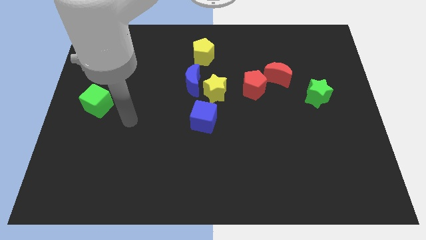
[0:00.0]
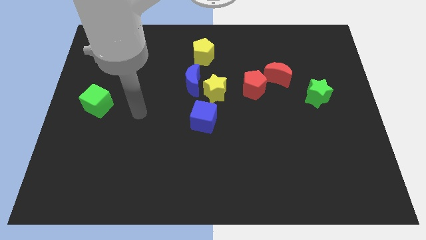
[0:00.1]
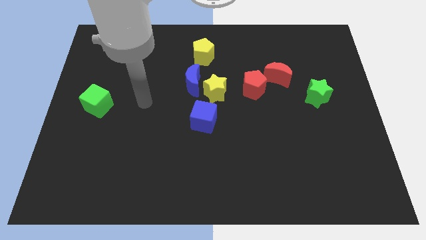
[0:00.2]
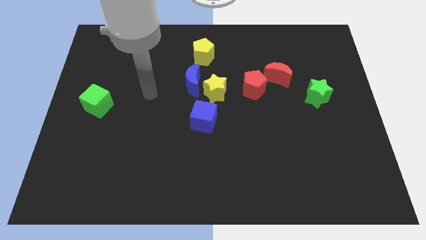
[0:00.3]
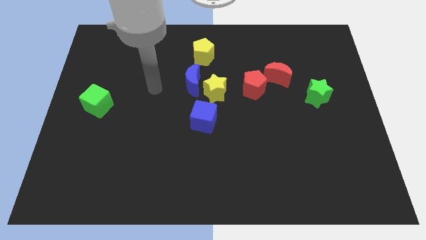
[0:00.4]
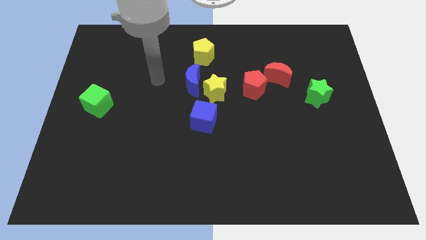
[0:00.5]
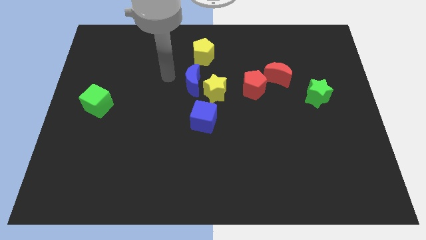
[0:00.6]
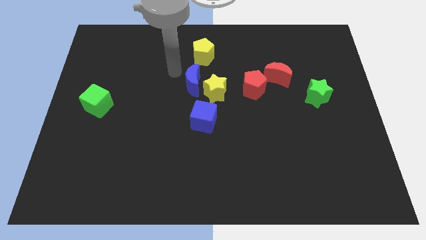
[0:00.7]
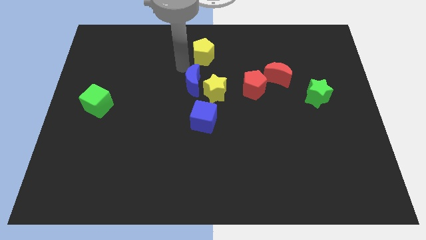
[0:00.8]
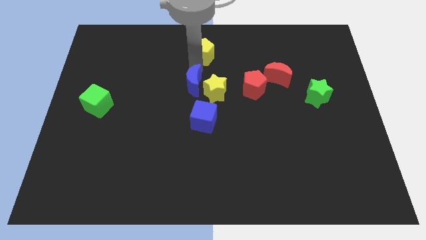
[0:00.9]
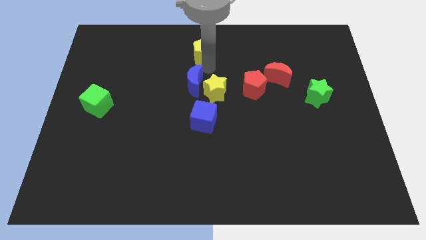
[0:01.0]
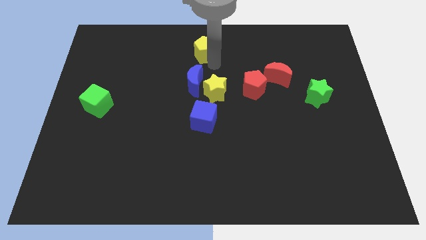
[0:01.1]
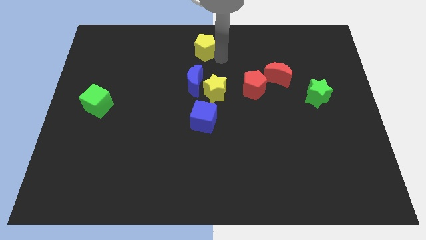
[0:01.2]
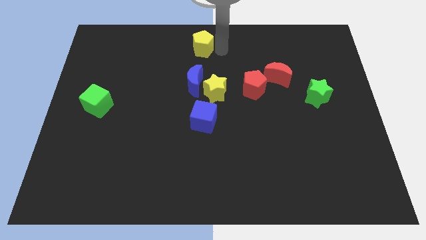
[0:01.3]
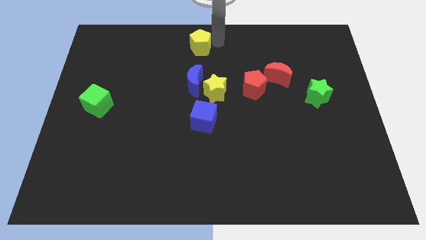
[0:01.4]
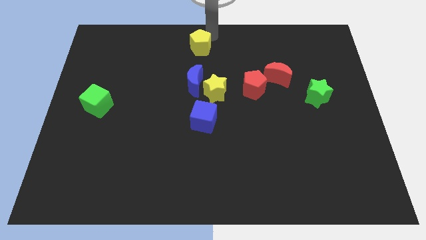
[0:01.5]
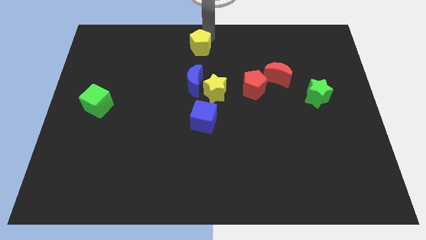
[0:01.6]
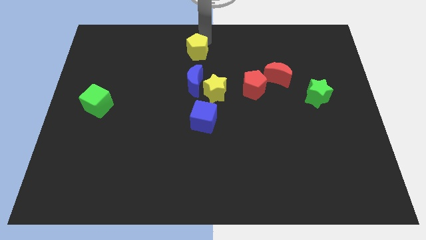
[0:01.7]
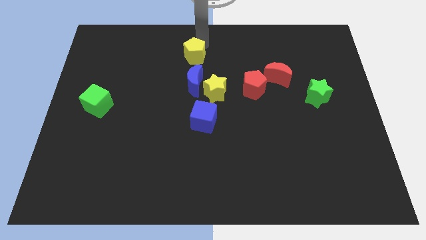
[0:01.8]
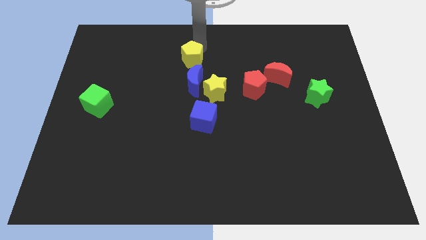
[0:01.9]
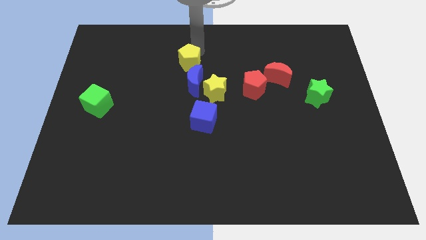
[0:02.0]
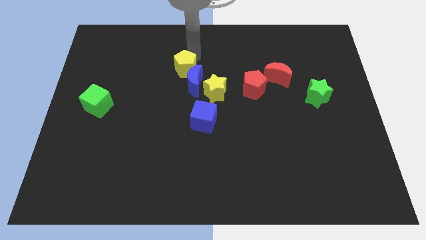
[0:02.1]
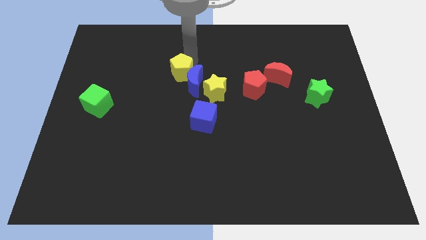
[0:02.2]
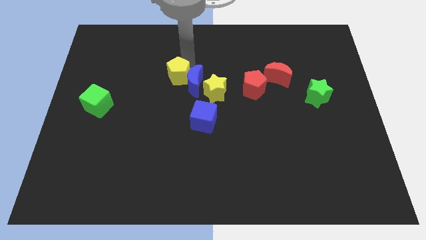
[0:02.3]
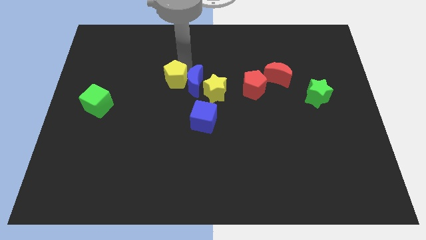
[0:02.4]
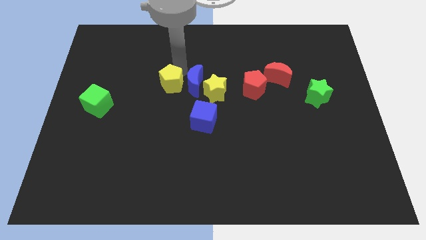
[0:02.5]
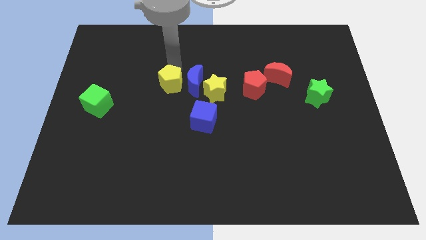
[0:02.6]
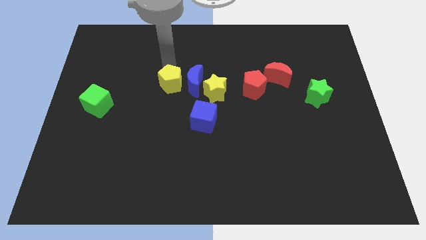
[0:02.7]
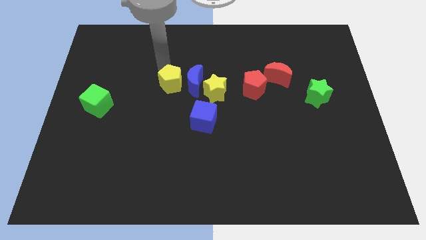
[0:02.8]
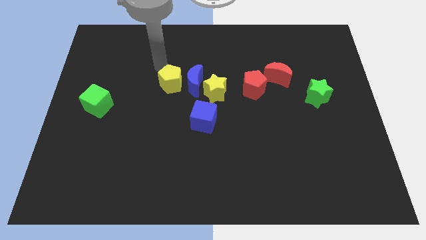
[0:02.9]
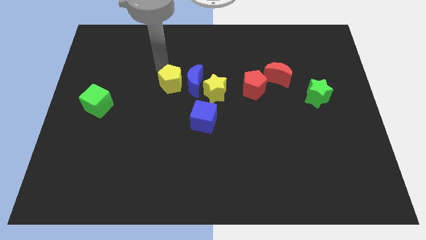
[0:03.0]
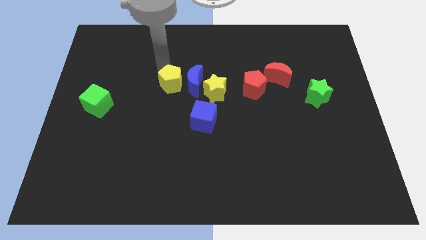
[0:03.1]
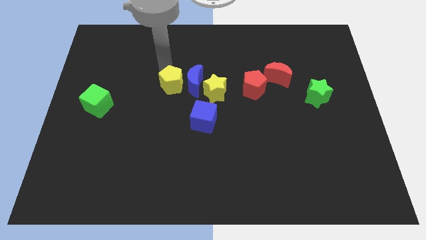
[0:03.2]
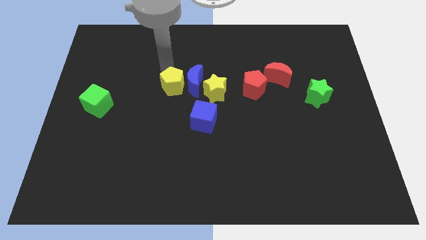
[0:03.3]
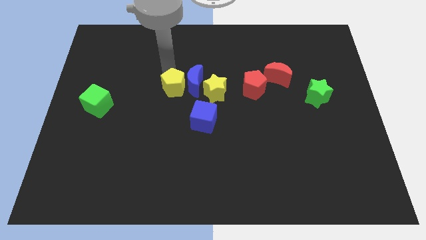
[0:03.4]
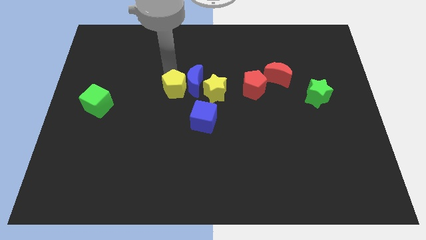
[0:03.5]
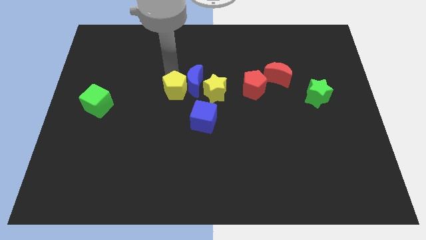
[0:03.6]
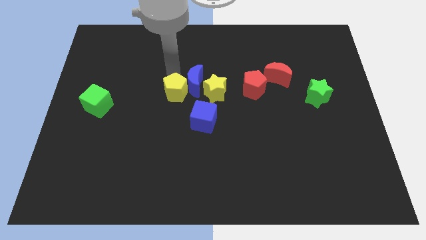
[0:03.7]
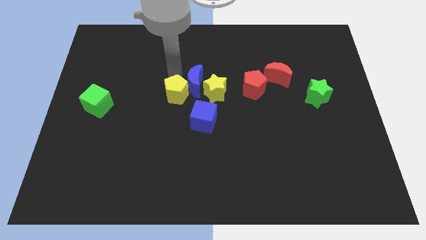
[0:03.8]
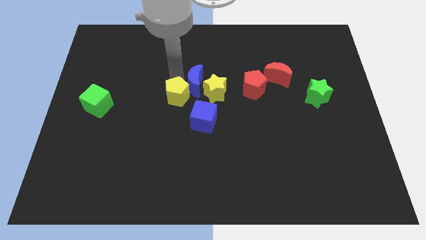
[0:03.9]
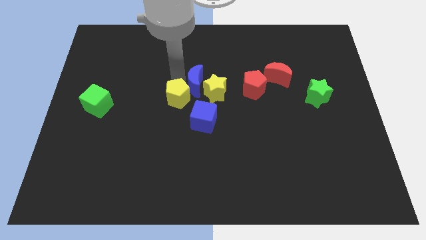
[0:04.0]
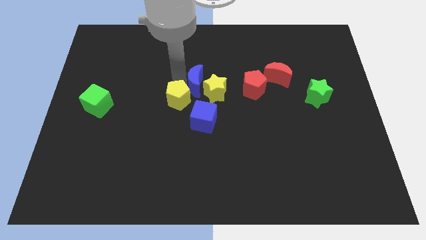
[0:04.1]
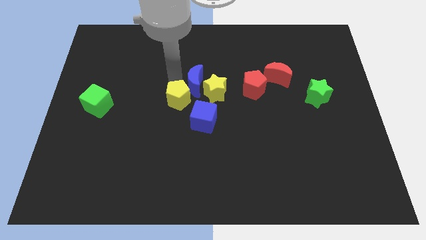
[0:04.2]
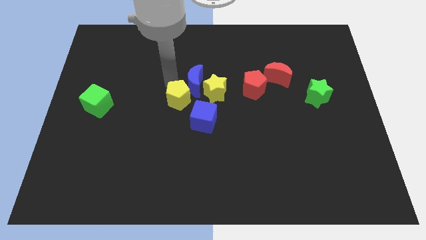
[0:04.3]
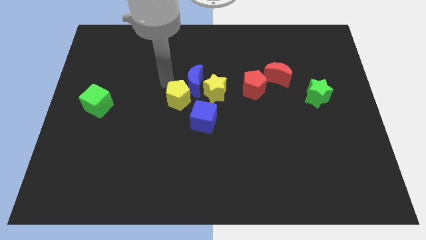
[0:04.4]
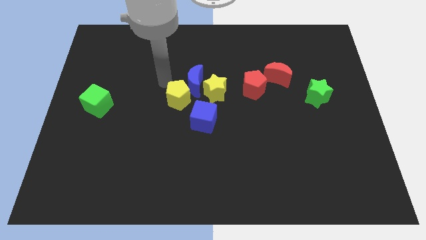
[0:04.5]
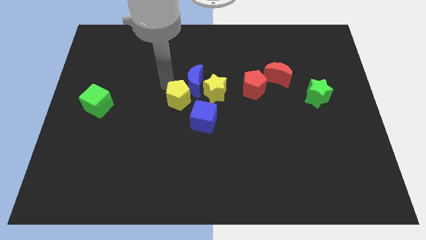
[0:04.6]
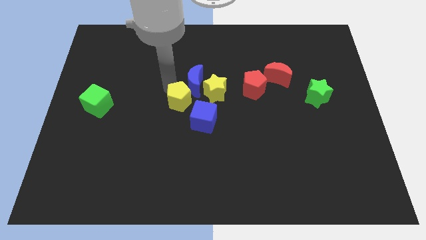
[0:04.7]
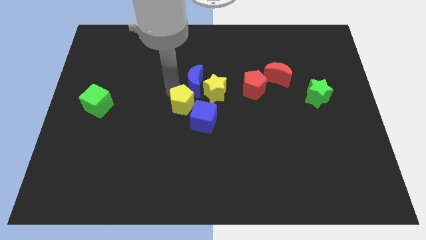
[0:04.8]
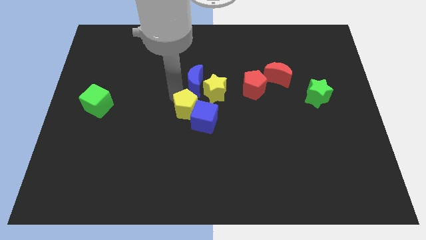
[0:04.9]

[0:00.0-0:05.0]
slide the yellow pentagon next to the blue cube

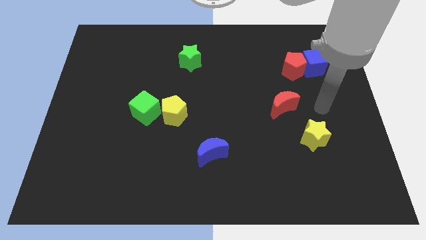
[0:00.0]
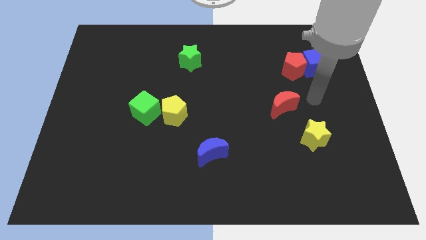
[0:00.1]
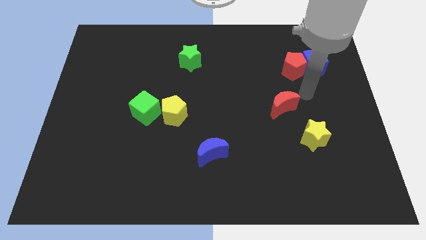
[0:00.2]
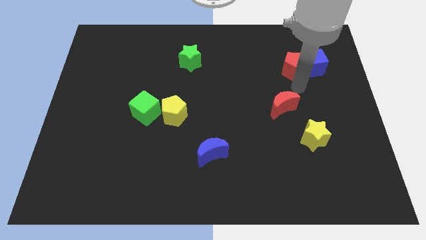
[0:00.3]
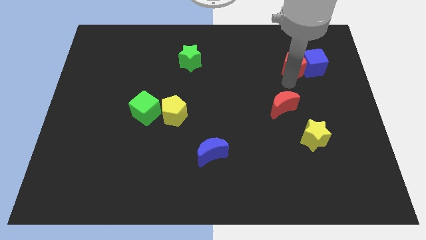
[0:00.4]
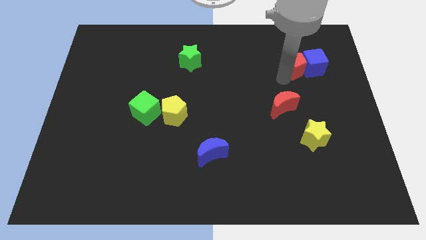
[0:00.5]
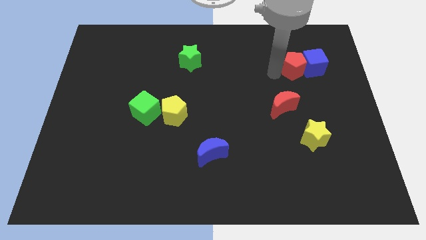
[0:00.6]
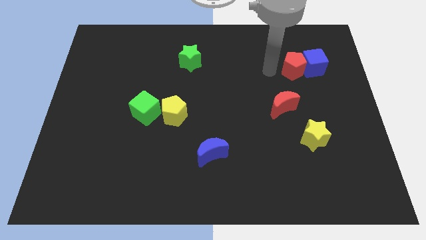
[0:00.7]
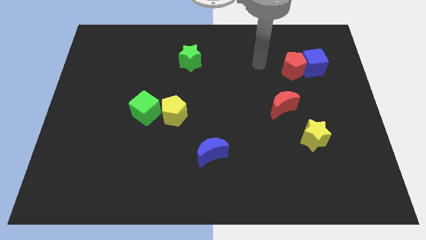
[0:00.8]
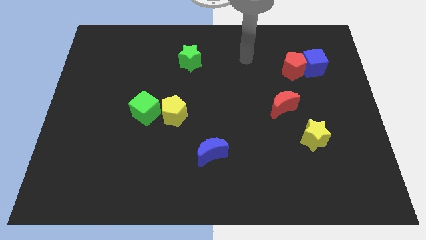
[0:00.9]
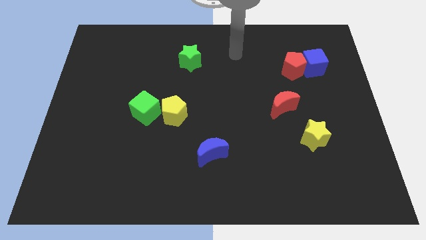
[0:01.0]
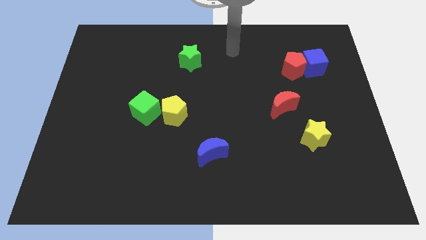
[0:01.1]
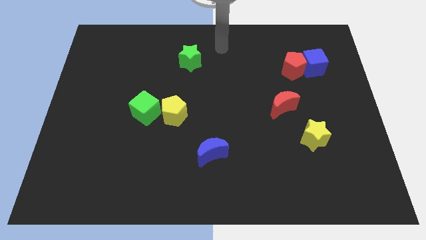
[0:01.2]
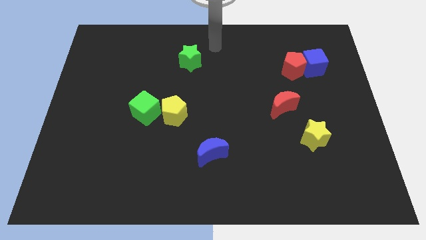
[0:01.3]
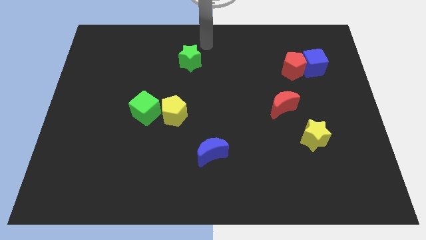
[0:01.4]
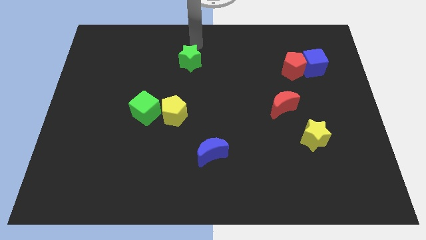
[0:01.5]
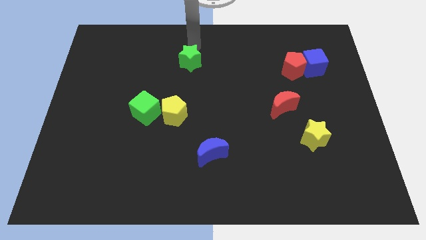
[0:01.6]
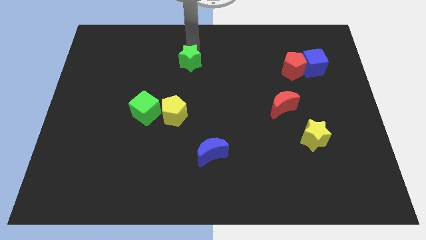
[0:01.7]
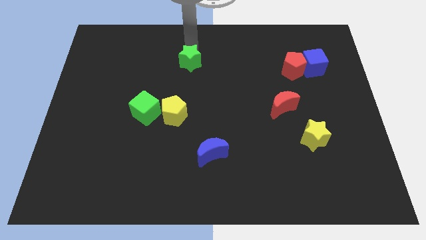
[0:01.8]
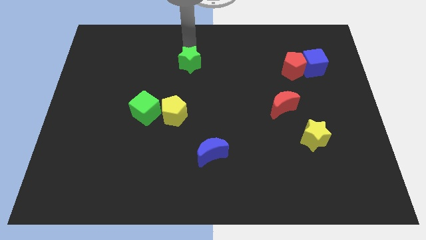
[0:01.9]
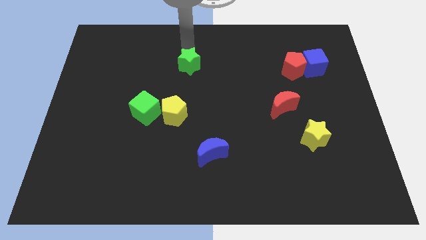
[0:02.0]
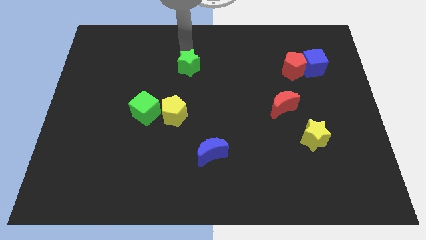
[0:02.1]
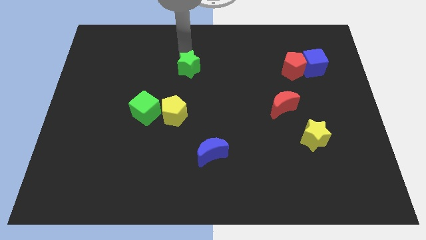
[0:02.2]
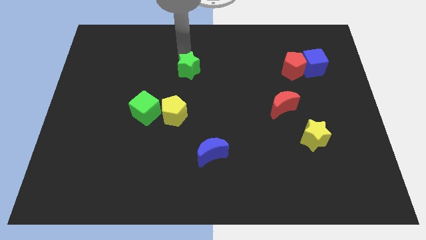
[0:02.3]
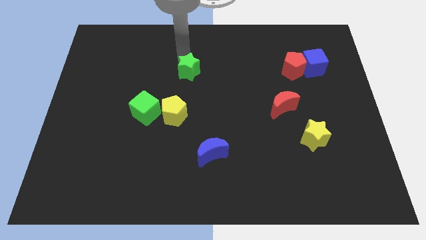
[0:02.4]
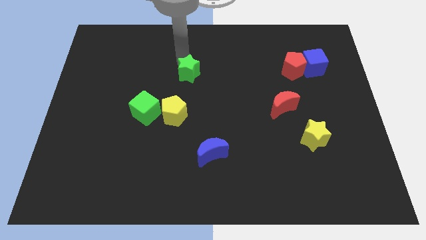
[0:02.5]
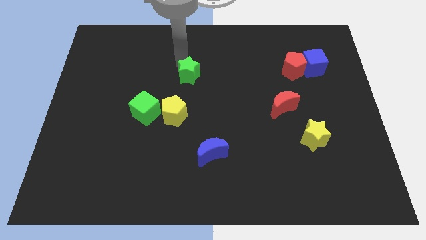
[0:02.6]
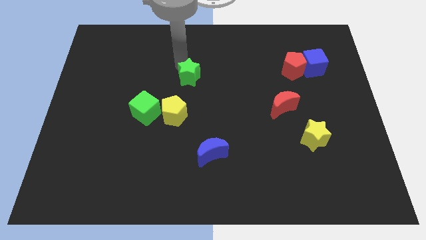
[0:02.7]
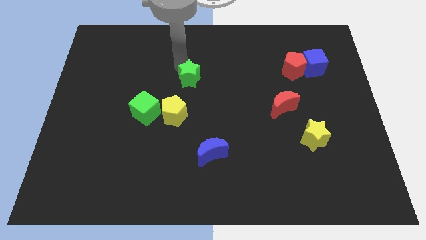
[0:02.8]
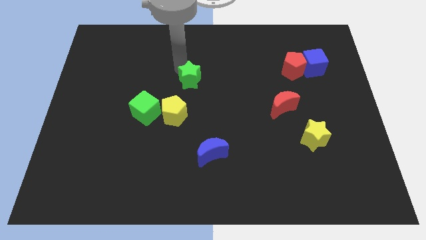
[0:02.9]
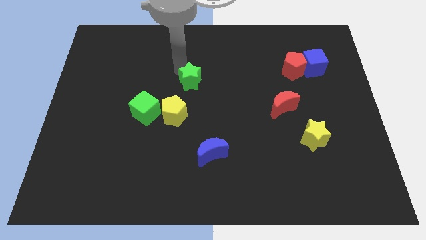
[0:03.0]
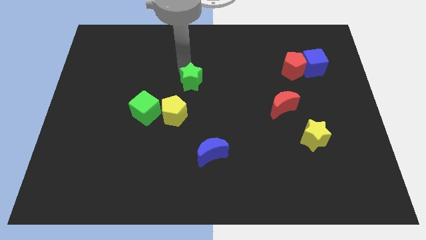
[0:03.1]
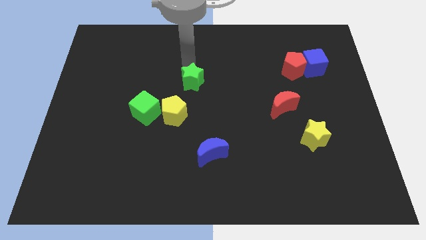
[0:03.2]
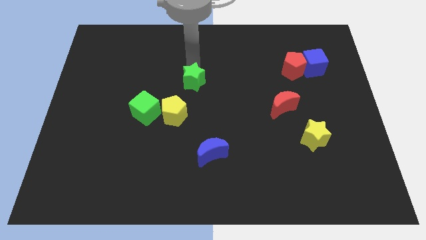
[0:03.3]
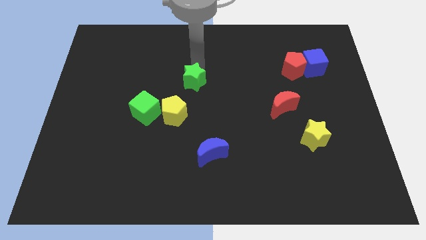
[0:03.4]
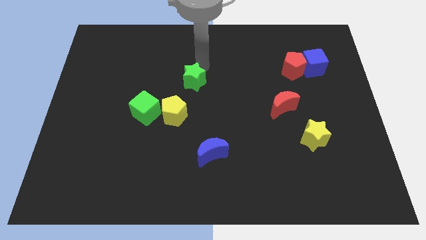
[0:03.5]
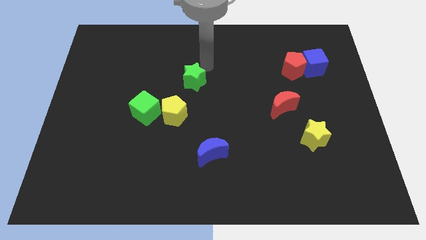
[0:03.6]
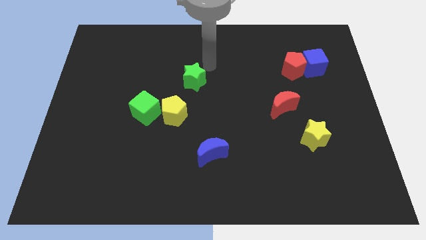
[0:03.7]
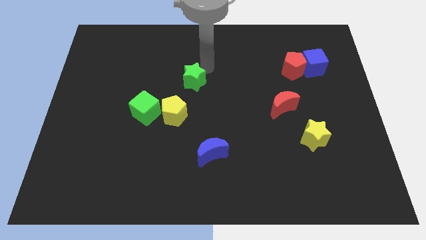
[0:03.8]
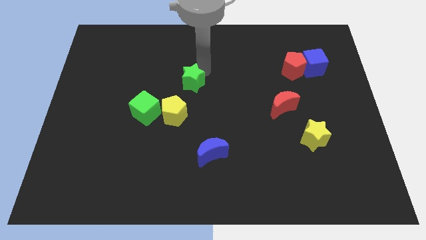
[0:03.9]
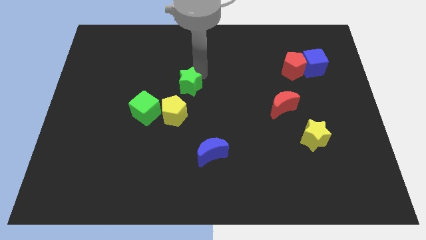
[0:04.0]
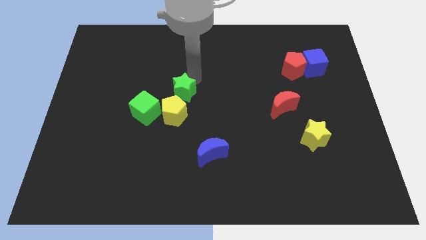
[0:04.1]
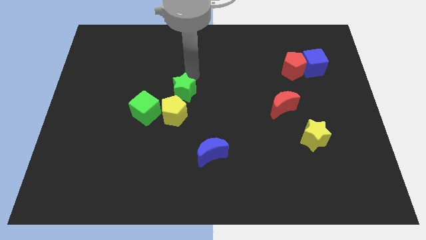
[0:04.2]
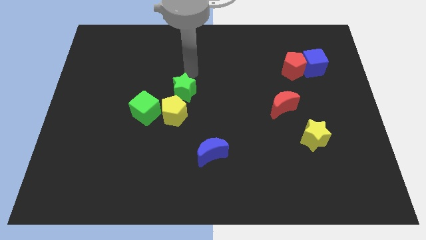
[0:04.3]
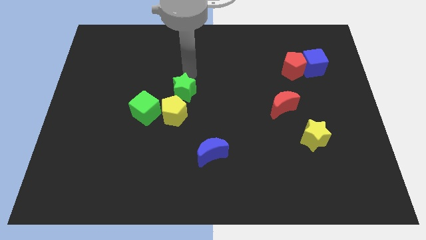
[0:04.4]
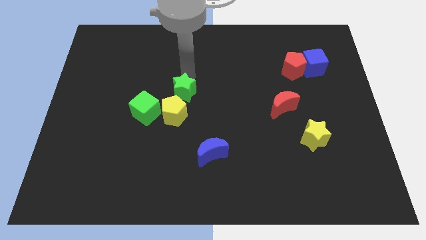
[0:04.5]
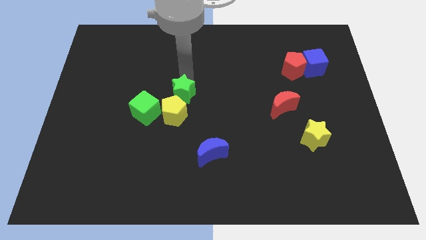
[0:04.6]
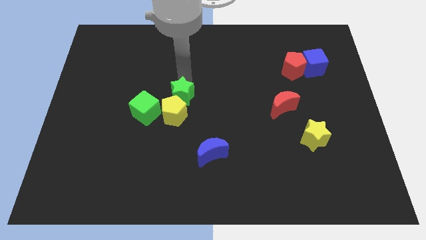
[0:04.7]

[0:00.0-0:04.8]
put the green star next to the yellow pentagon
